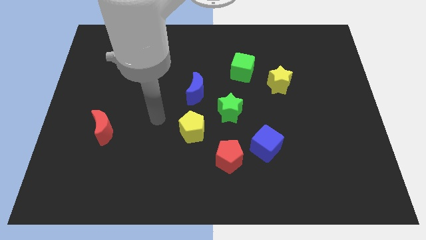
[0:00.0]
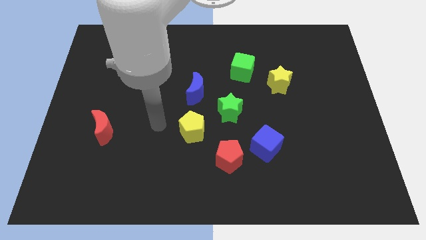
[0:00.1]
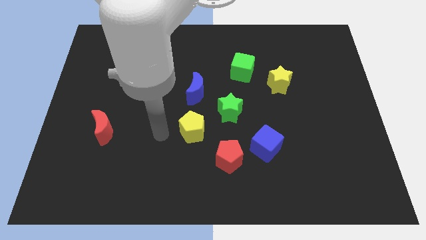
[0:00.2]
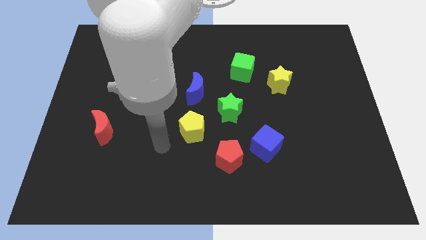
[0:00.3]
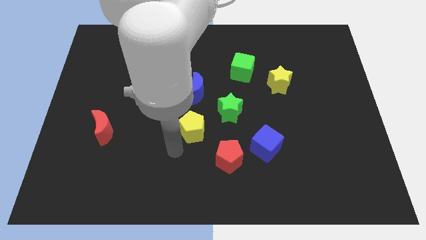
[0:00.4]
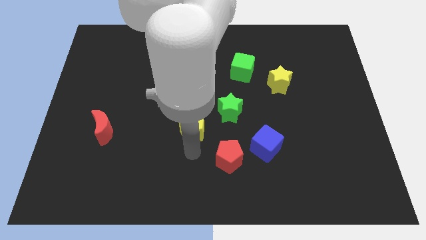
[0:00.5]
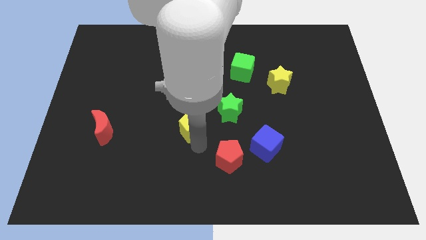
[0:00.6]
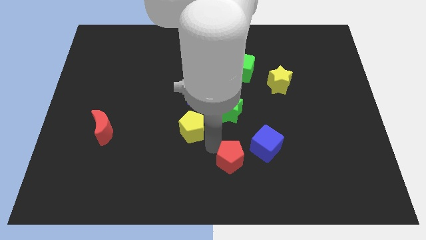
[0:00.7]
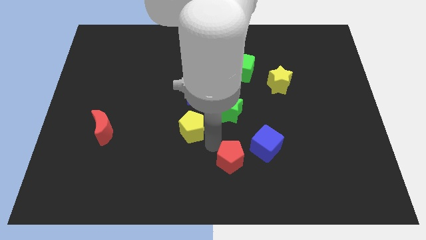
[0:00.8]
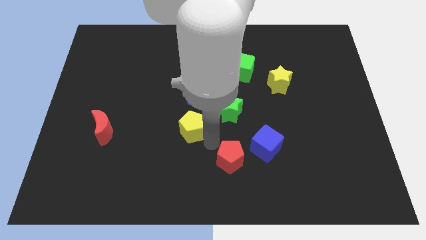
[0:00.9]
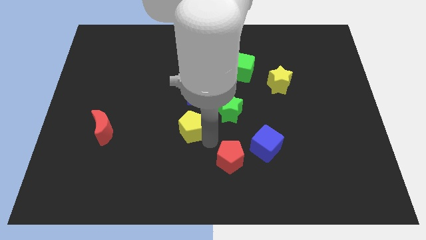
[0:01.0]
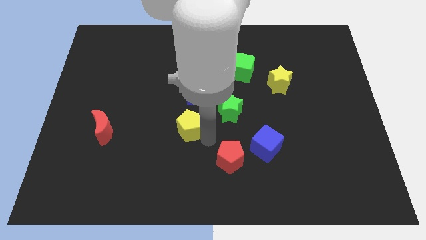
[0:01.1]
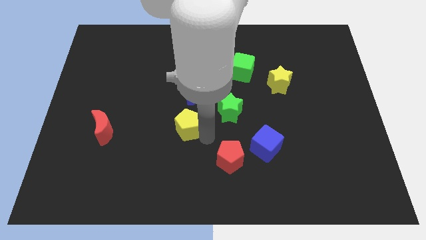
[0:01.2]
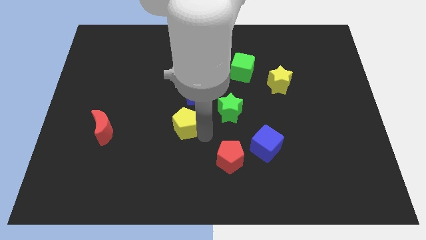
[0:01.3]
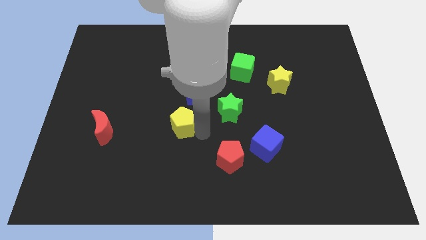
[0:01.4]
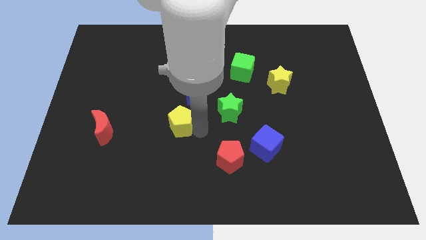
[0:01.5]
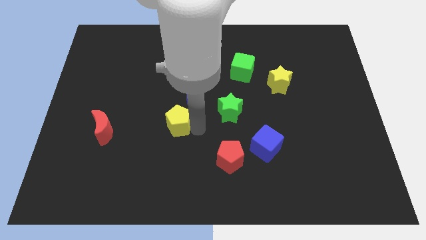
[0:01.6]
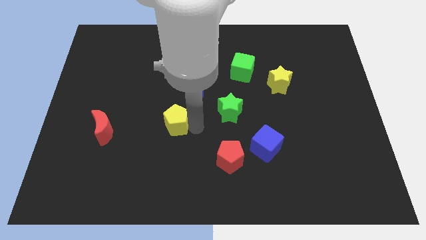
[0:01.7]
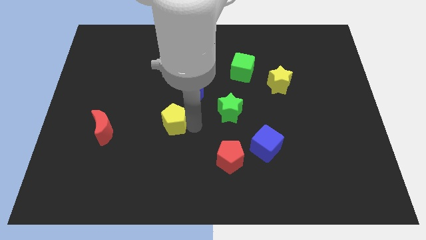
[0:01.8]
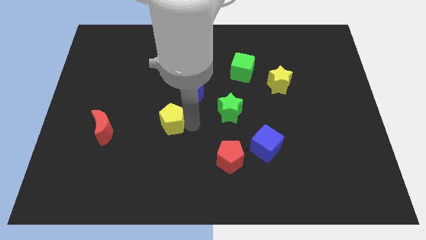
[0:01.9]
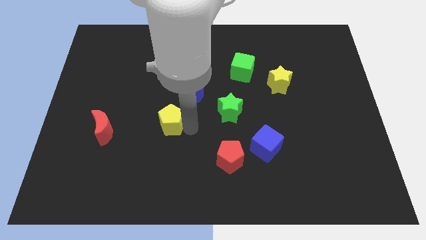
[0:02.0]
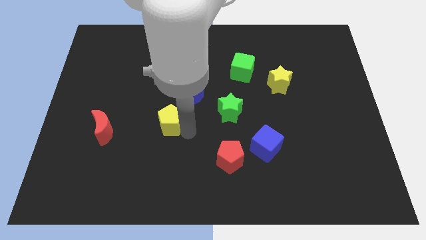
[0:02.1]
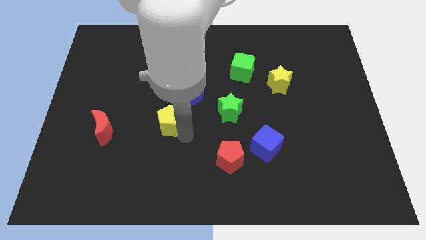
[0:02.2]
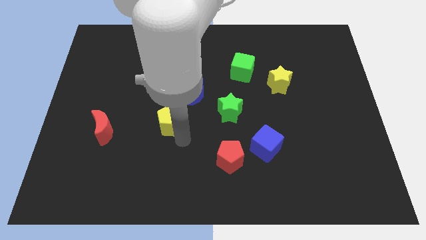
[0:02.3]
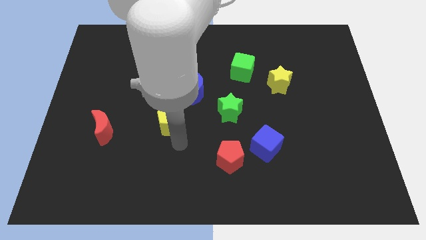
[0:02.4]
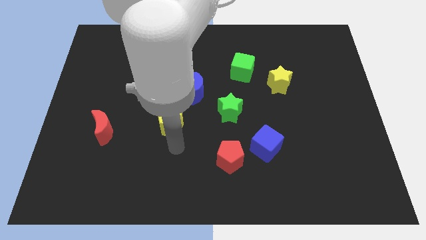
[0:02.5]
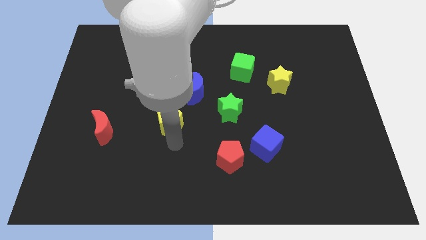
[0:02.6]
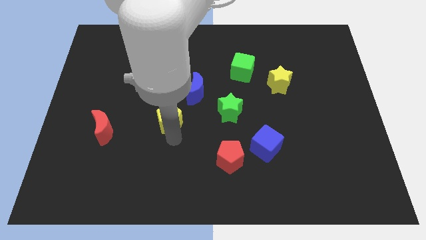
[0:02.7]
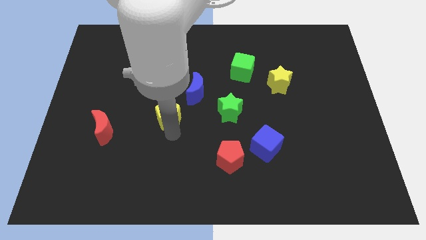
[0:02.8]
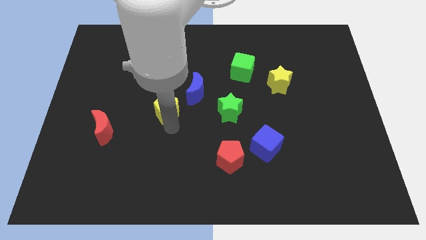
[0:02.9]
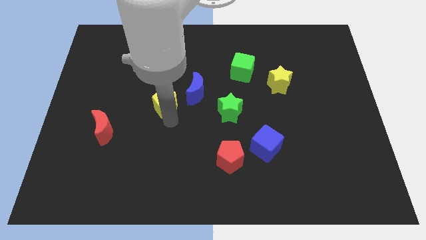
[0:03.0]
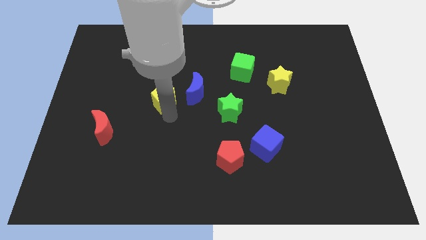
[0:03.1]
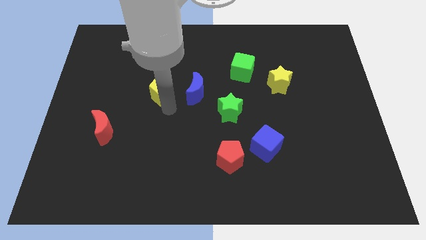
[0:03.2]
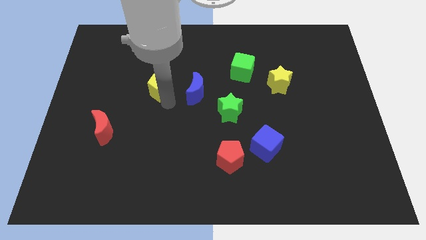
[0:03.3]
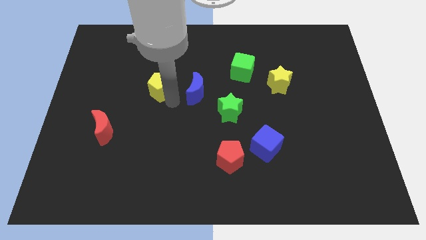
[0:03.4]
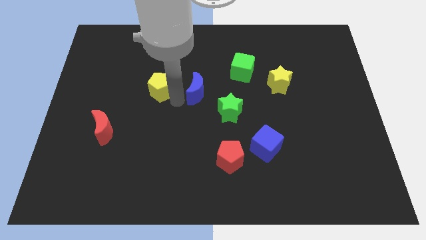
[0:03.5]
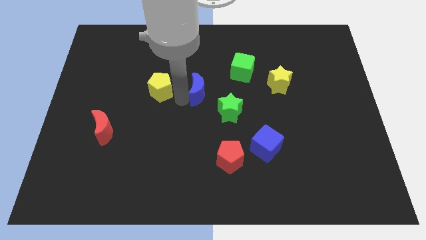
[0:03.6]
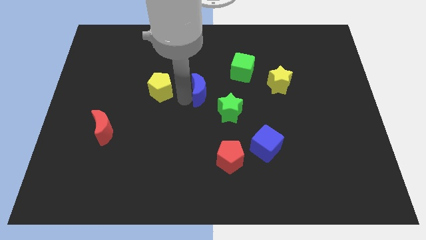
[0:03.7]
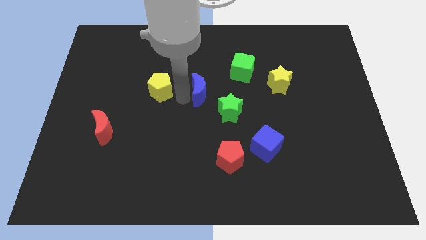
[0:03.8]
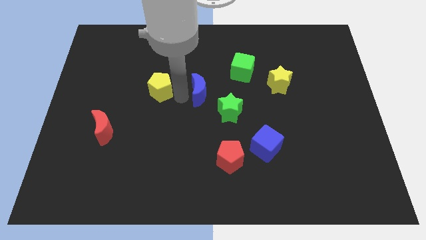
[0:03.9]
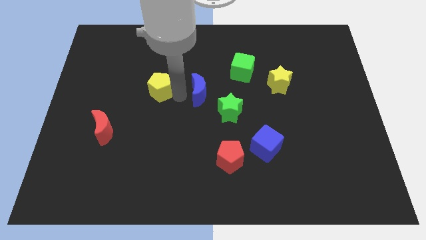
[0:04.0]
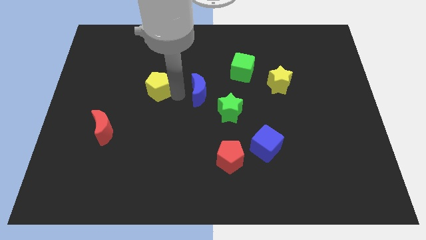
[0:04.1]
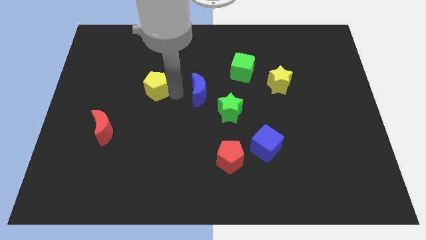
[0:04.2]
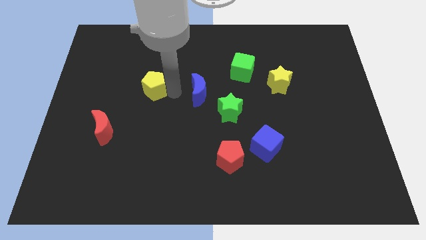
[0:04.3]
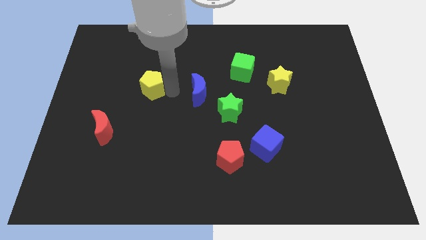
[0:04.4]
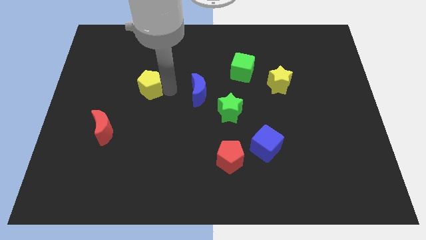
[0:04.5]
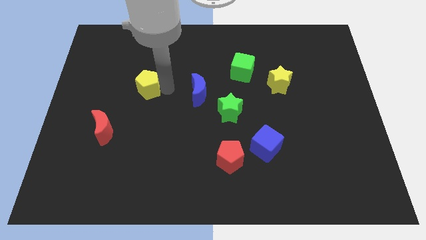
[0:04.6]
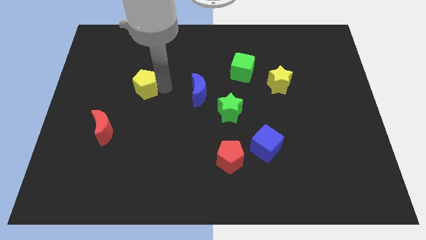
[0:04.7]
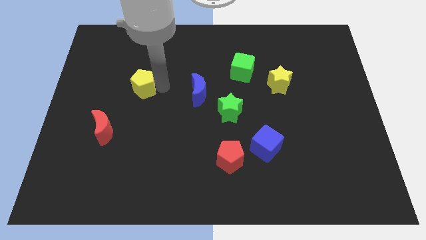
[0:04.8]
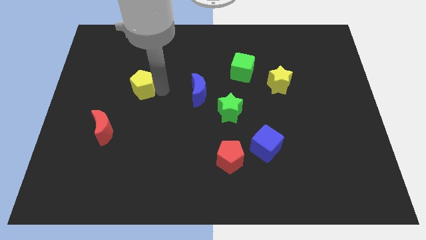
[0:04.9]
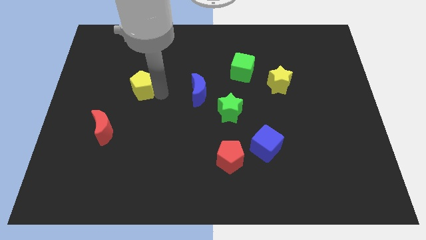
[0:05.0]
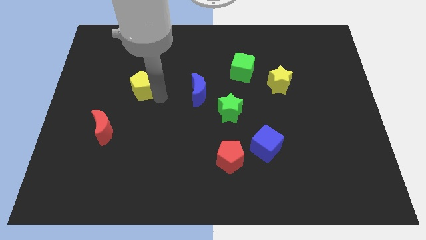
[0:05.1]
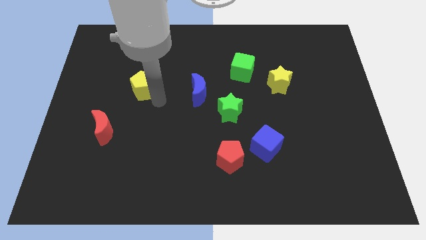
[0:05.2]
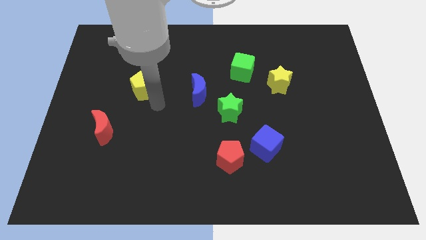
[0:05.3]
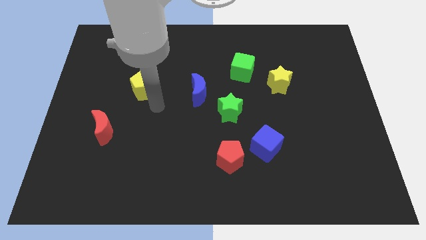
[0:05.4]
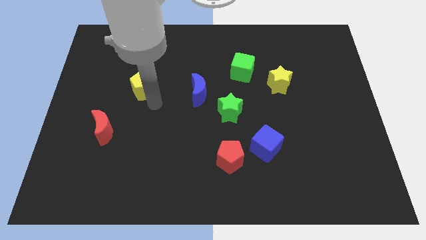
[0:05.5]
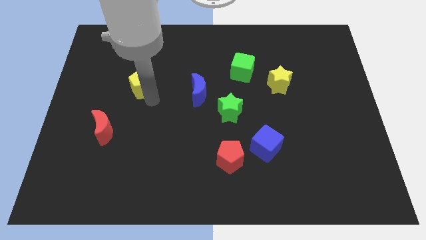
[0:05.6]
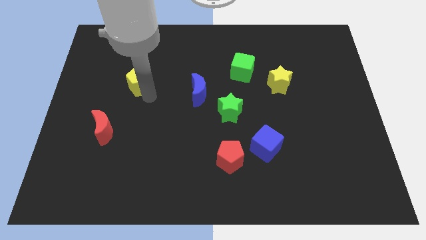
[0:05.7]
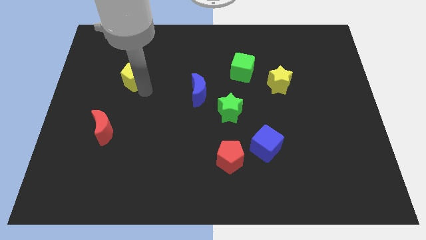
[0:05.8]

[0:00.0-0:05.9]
move the yellow pentagon upwards and then to the left

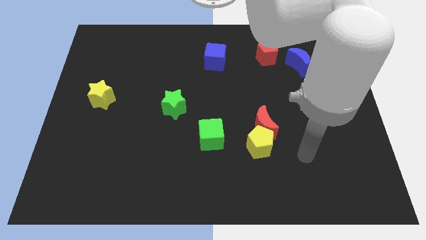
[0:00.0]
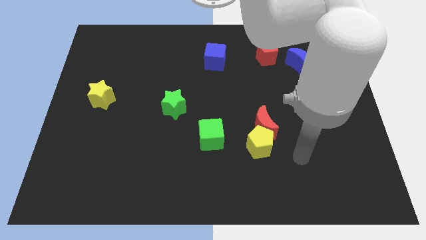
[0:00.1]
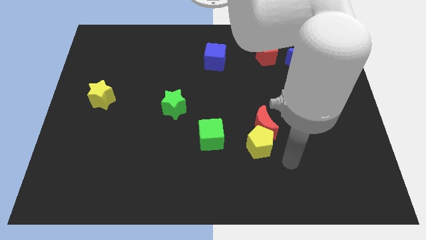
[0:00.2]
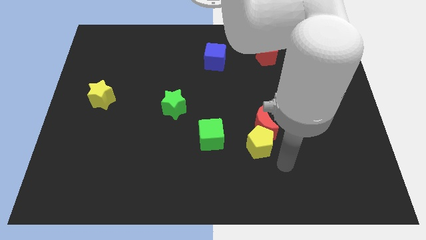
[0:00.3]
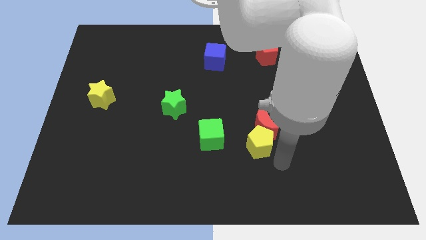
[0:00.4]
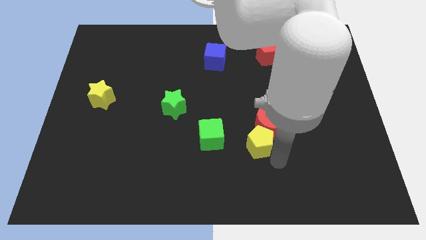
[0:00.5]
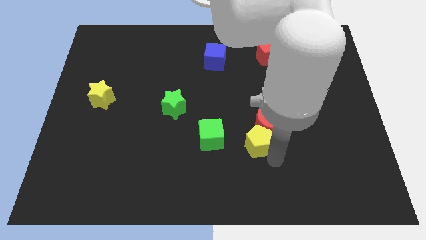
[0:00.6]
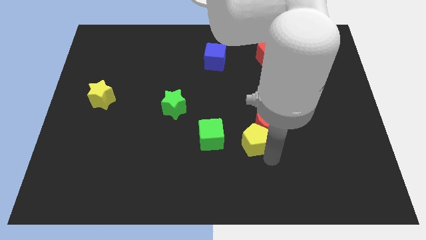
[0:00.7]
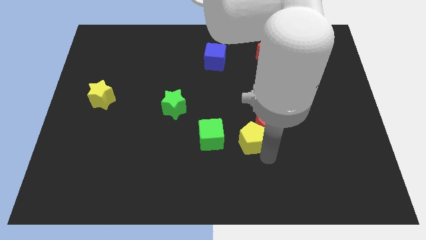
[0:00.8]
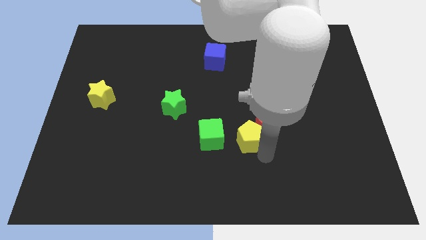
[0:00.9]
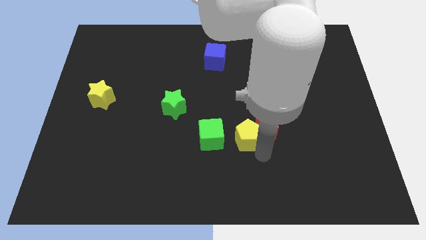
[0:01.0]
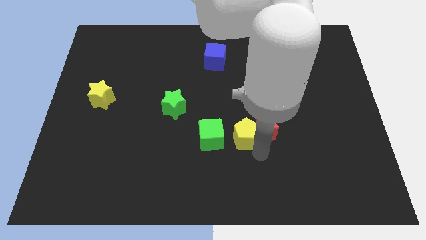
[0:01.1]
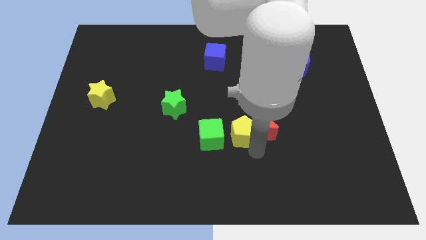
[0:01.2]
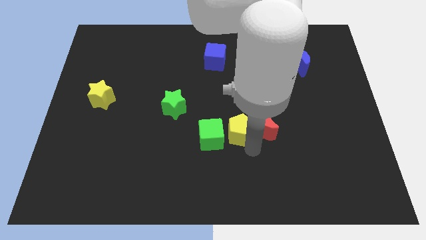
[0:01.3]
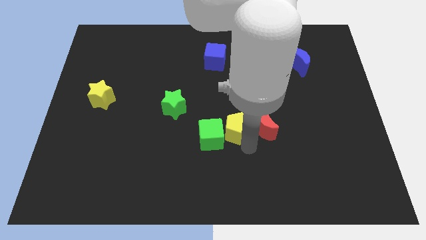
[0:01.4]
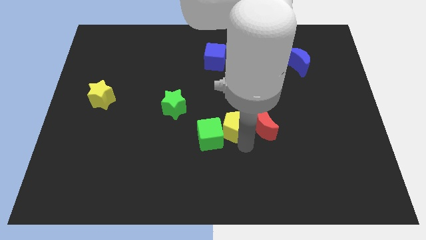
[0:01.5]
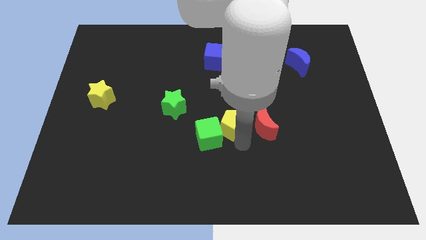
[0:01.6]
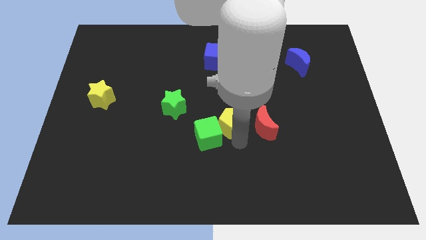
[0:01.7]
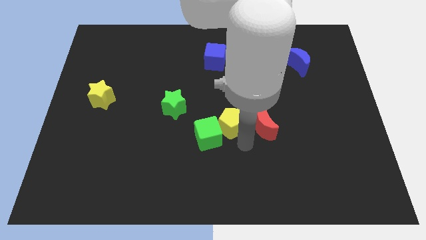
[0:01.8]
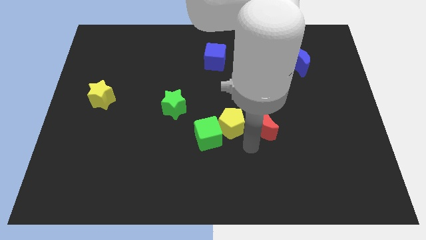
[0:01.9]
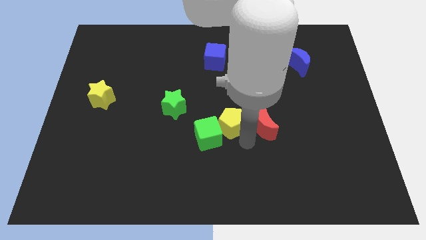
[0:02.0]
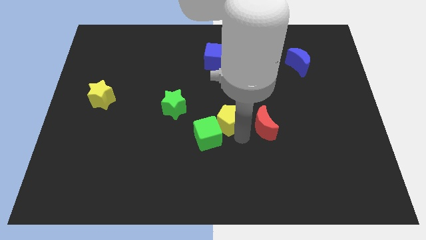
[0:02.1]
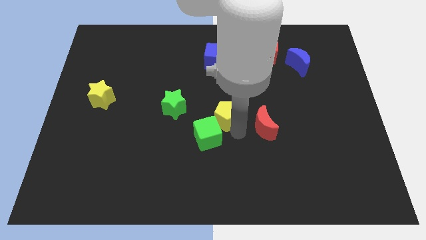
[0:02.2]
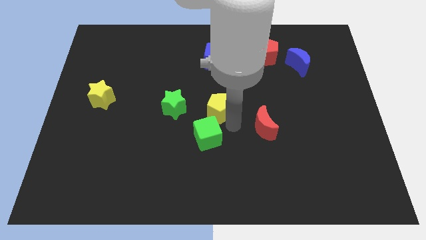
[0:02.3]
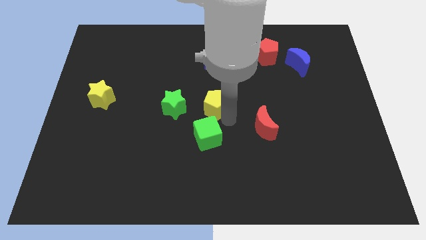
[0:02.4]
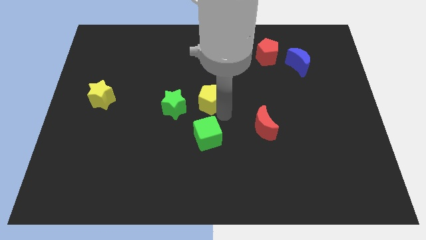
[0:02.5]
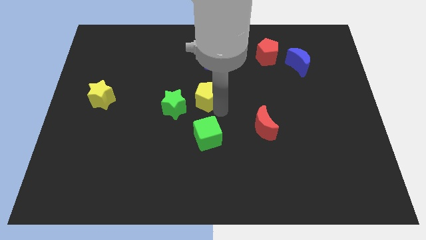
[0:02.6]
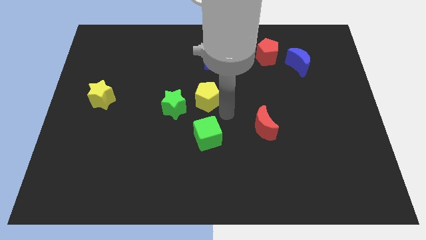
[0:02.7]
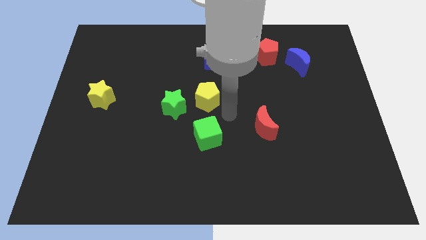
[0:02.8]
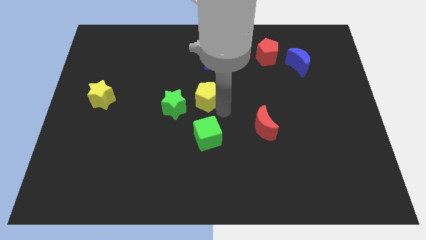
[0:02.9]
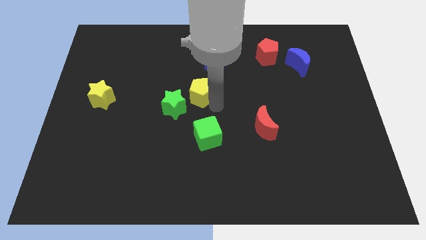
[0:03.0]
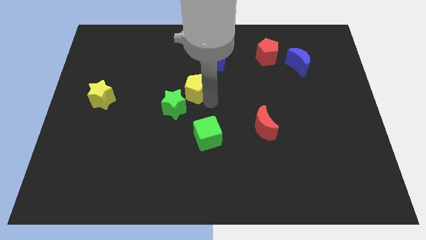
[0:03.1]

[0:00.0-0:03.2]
slide the yellow pentagon upwards and left diagonally

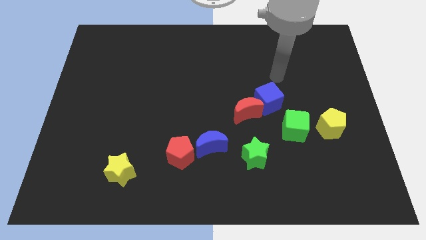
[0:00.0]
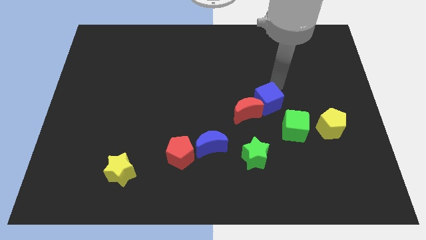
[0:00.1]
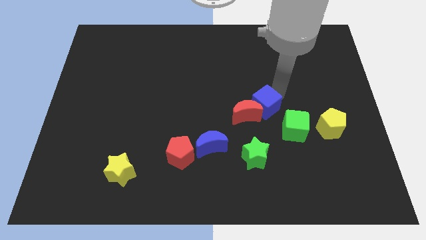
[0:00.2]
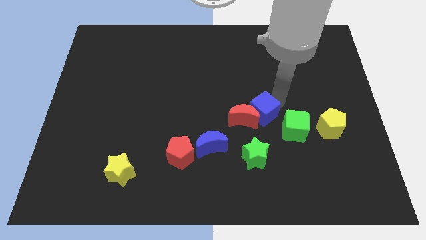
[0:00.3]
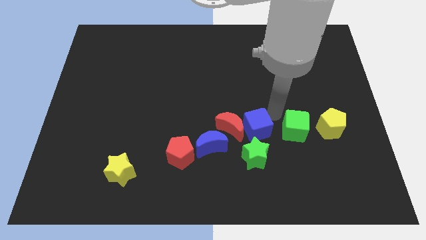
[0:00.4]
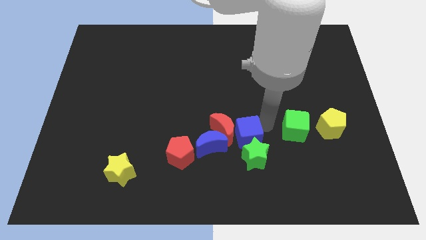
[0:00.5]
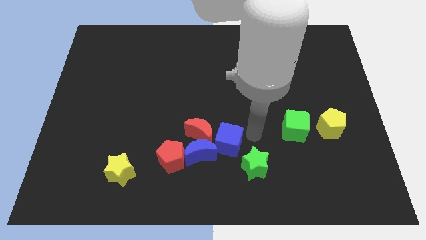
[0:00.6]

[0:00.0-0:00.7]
slightly slide the red moon to the left
